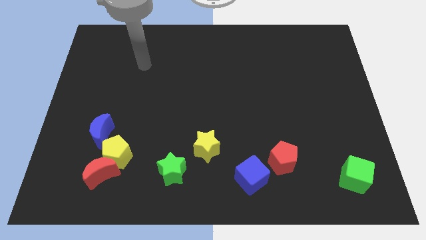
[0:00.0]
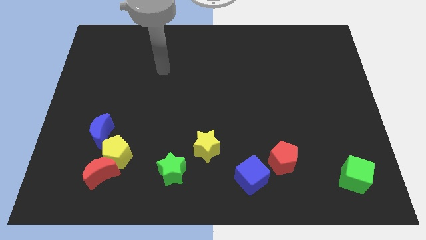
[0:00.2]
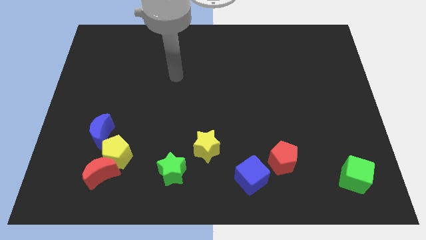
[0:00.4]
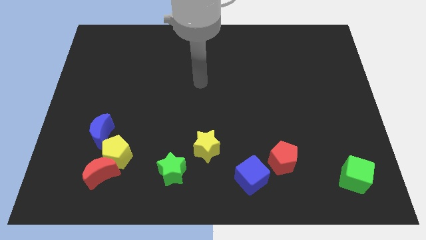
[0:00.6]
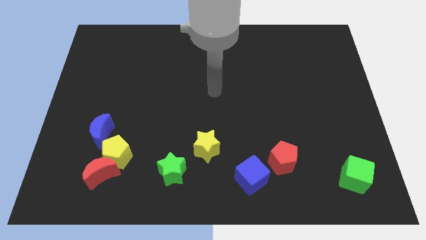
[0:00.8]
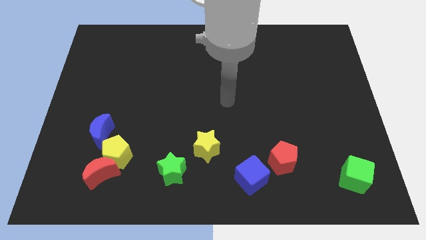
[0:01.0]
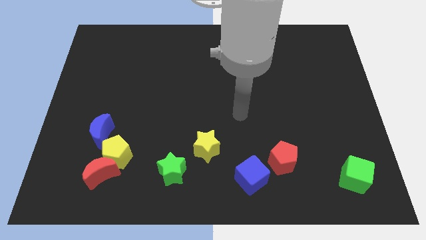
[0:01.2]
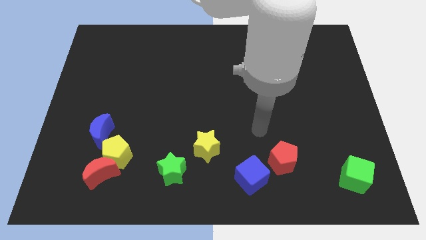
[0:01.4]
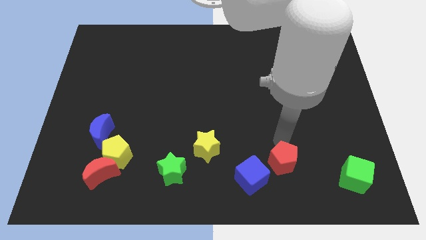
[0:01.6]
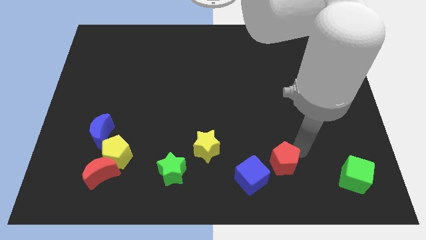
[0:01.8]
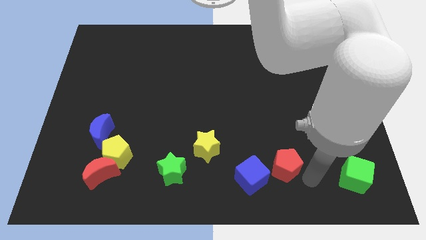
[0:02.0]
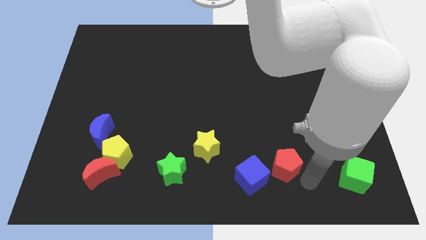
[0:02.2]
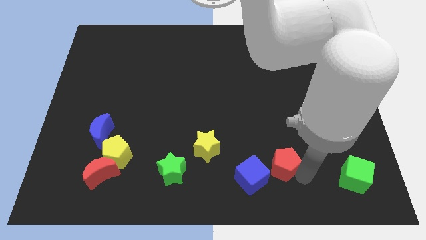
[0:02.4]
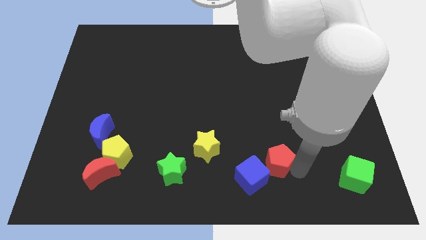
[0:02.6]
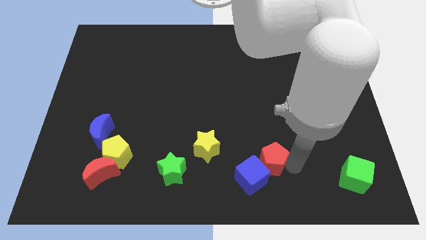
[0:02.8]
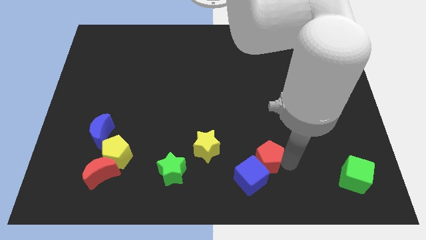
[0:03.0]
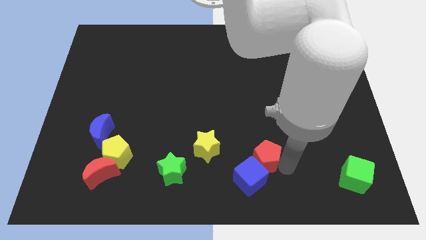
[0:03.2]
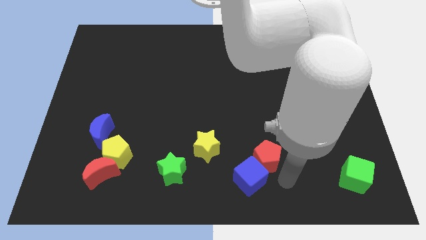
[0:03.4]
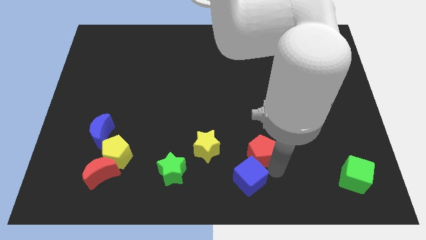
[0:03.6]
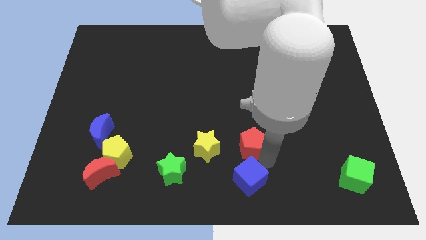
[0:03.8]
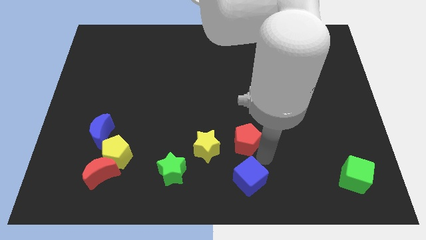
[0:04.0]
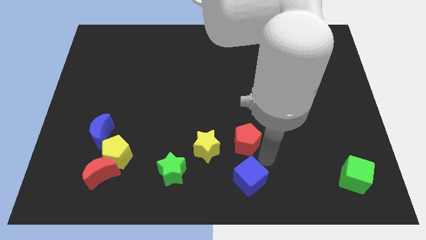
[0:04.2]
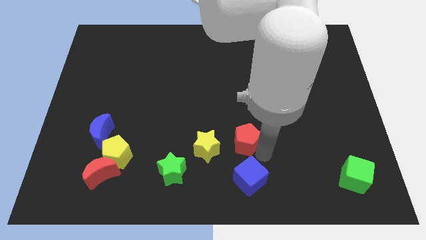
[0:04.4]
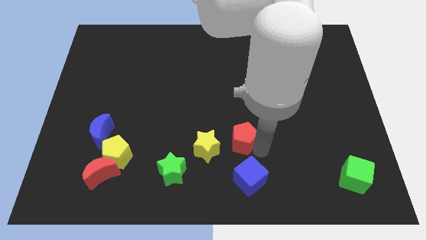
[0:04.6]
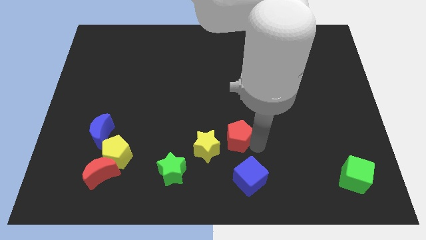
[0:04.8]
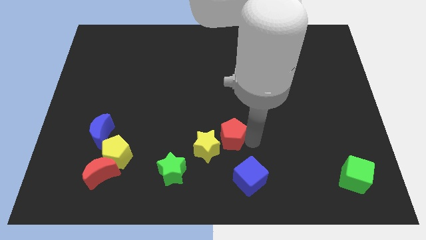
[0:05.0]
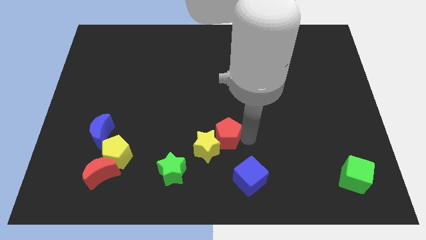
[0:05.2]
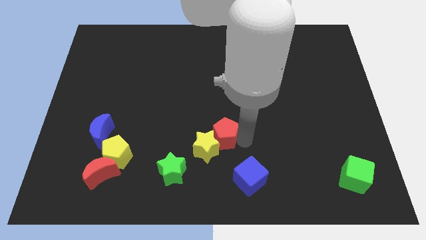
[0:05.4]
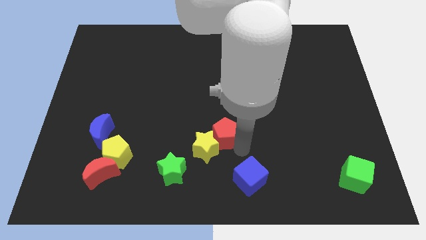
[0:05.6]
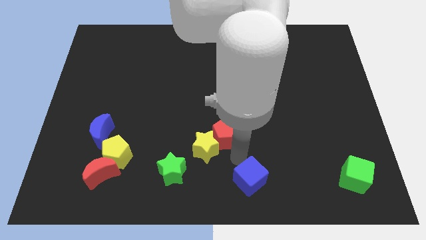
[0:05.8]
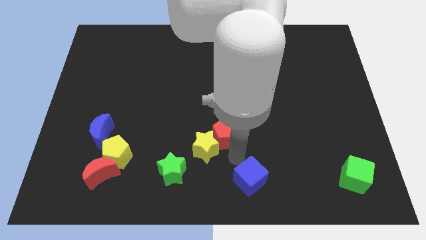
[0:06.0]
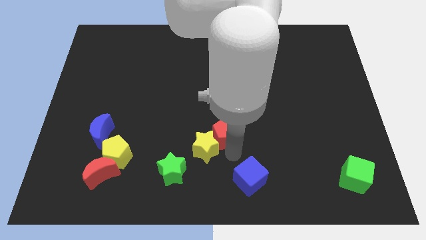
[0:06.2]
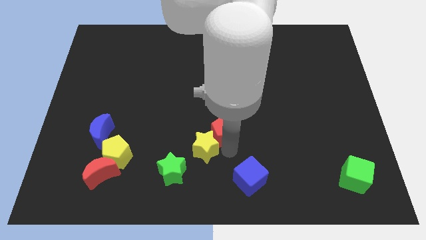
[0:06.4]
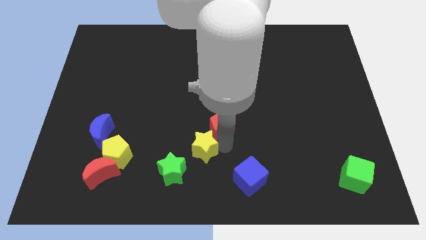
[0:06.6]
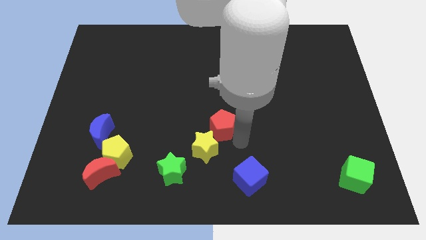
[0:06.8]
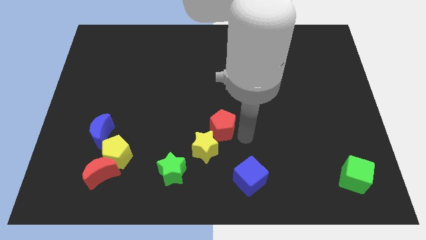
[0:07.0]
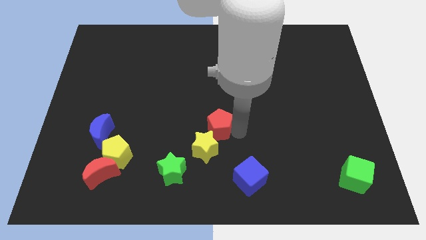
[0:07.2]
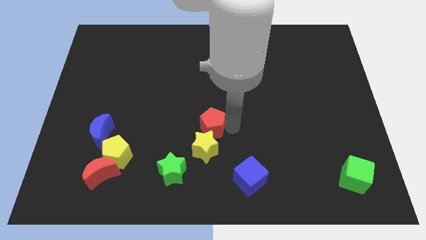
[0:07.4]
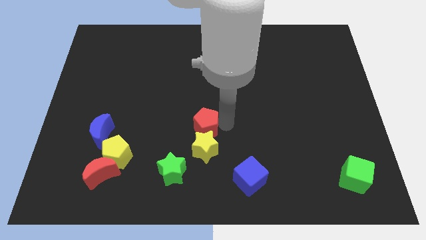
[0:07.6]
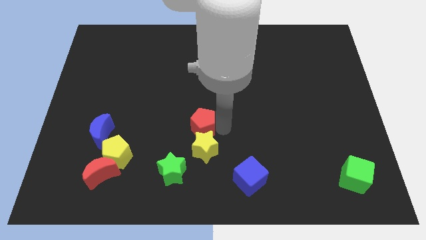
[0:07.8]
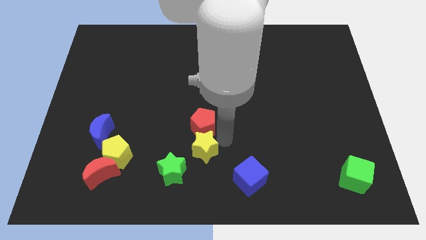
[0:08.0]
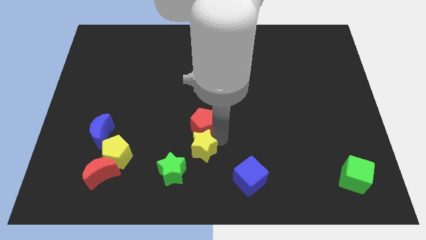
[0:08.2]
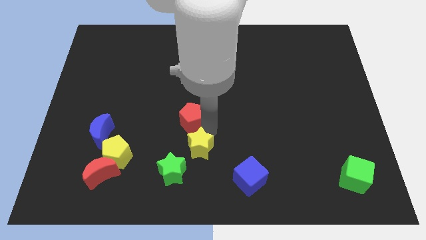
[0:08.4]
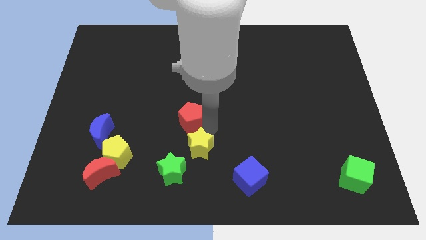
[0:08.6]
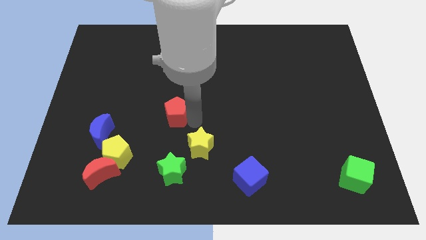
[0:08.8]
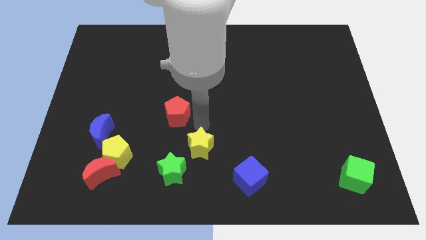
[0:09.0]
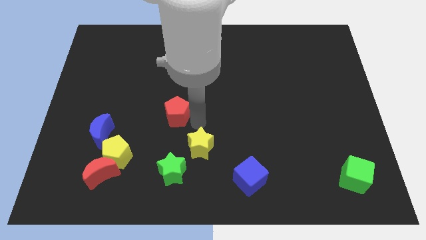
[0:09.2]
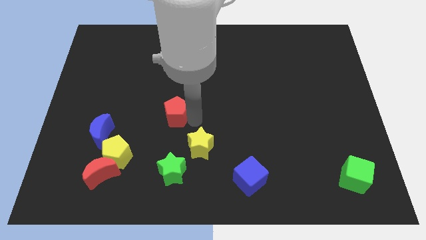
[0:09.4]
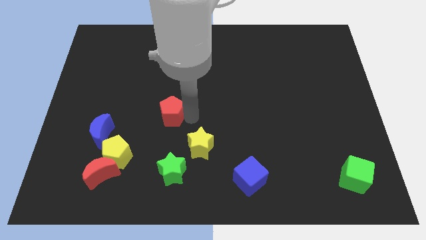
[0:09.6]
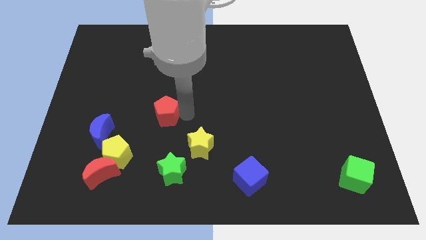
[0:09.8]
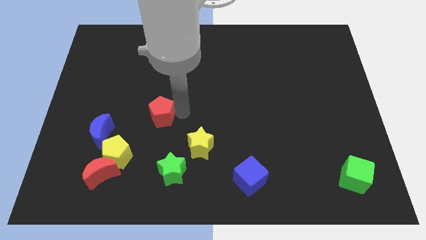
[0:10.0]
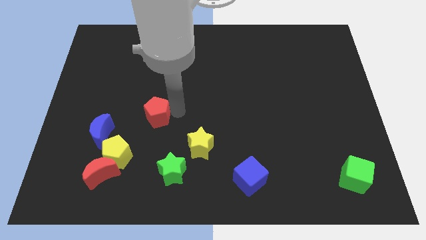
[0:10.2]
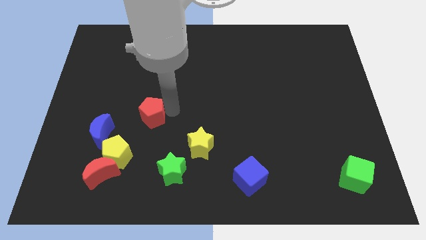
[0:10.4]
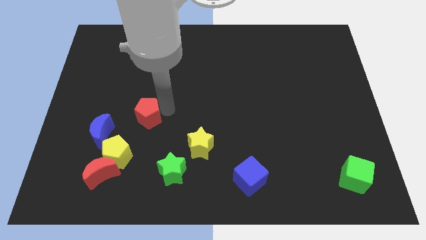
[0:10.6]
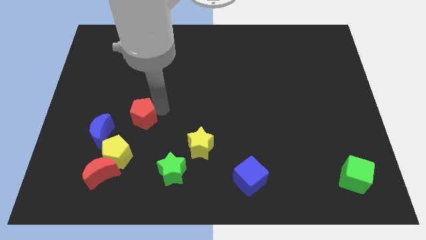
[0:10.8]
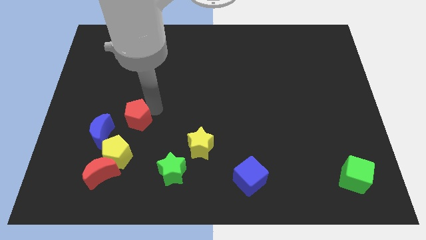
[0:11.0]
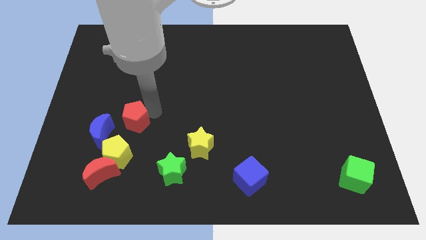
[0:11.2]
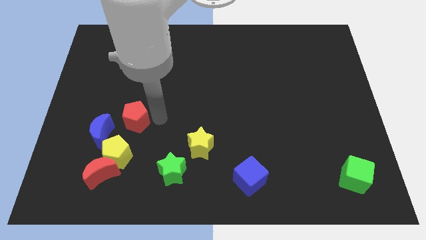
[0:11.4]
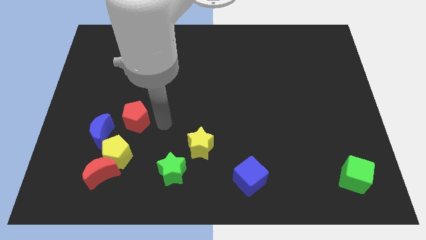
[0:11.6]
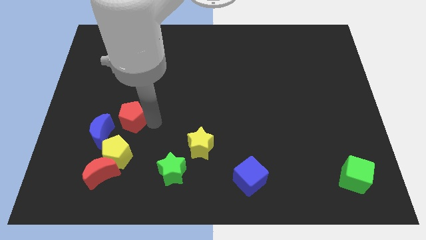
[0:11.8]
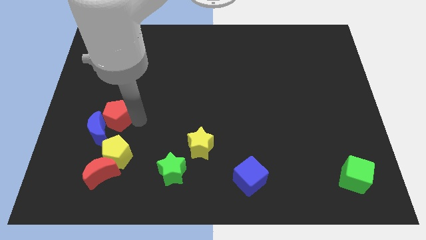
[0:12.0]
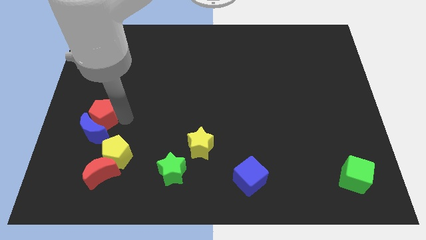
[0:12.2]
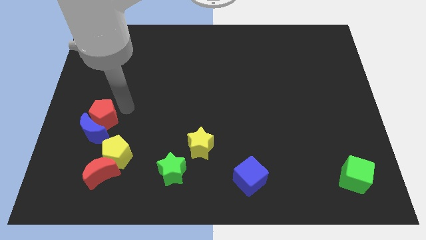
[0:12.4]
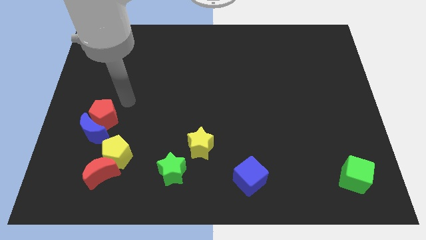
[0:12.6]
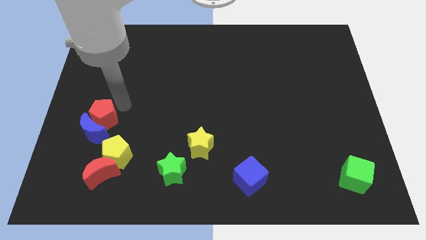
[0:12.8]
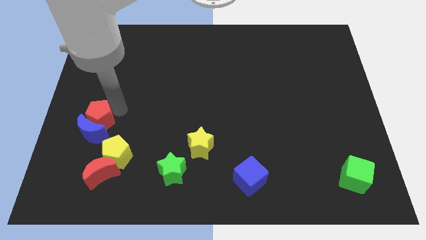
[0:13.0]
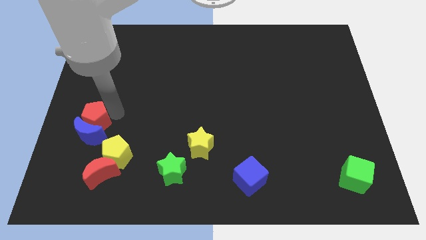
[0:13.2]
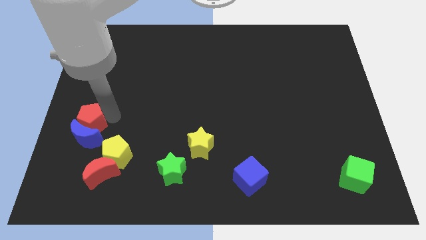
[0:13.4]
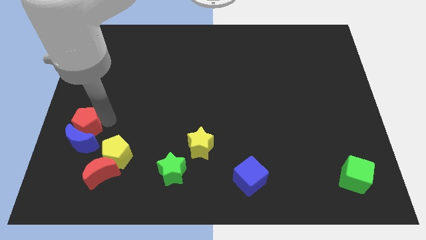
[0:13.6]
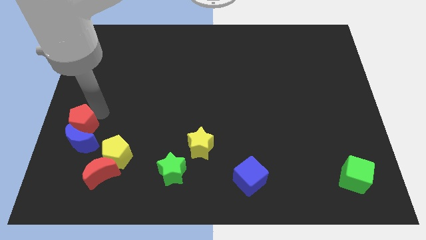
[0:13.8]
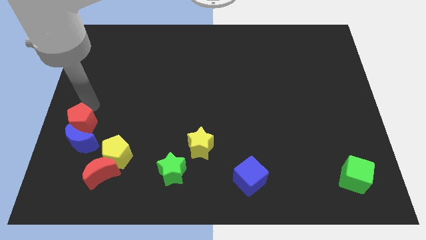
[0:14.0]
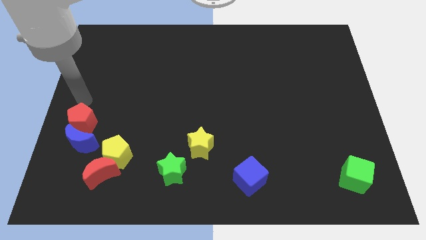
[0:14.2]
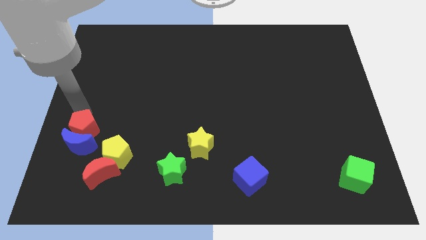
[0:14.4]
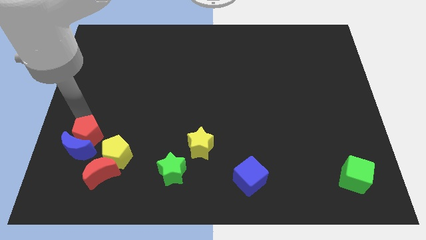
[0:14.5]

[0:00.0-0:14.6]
move the red pentagon diagonally up and to the left of the red moon
